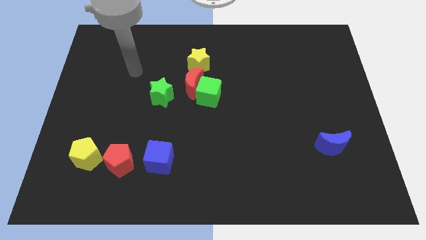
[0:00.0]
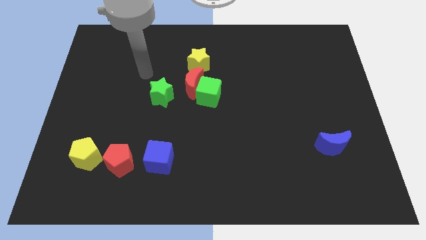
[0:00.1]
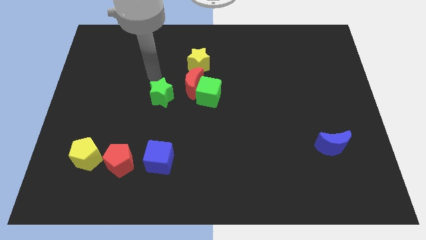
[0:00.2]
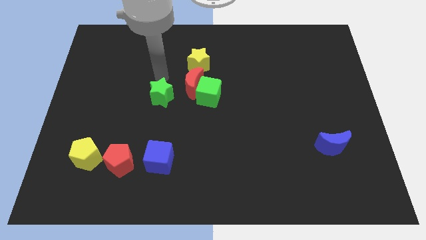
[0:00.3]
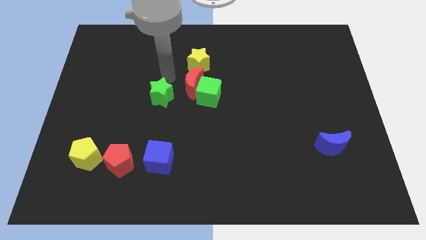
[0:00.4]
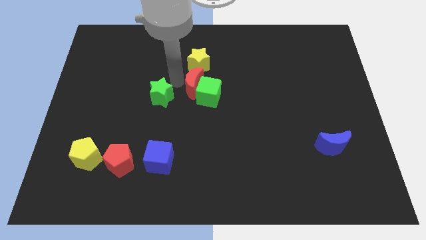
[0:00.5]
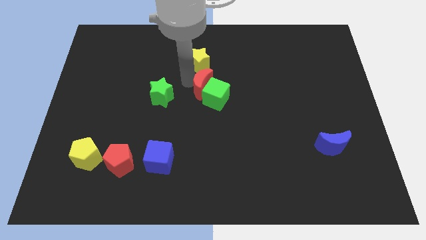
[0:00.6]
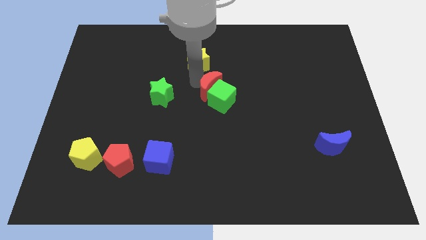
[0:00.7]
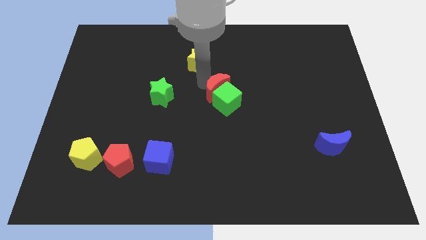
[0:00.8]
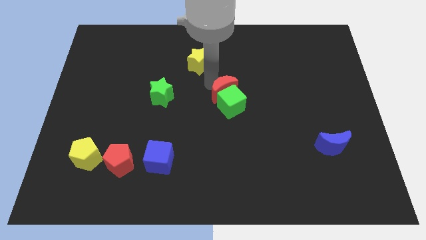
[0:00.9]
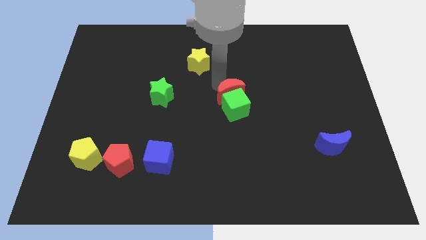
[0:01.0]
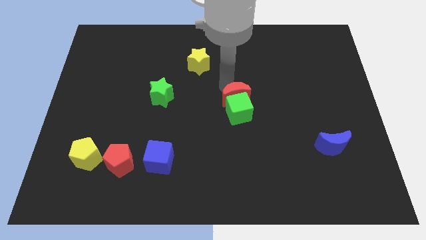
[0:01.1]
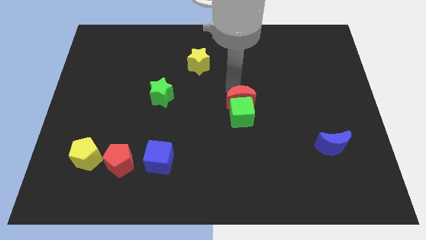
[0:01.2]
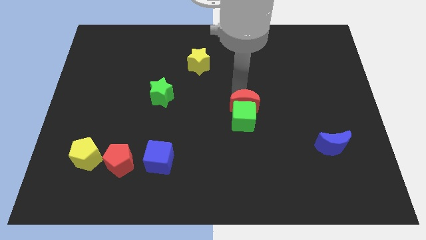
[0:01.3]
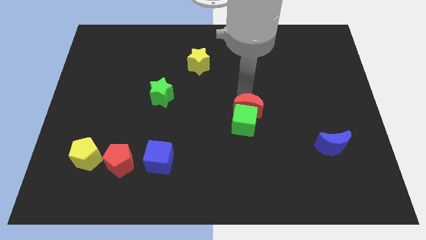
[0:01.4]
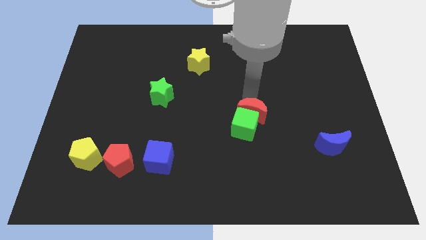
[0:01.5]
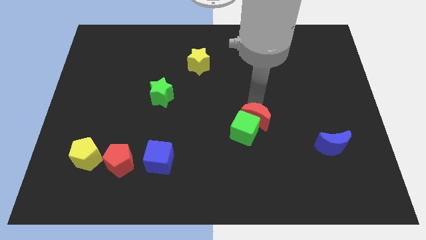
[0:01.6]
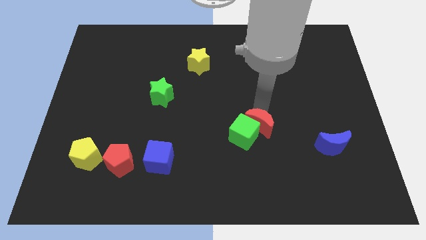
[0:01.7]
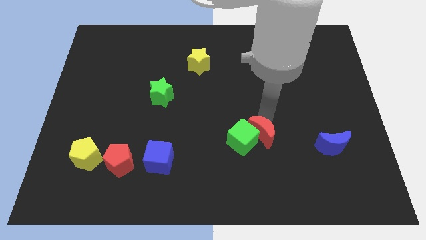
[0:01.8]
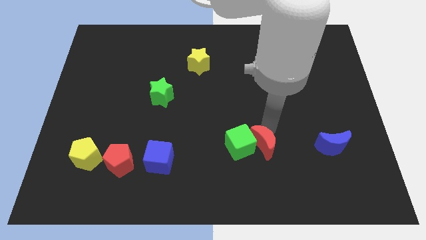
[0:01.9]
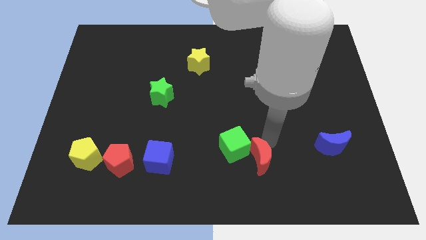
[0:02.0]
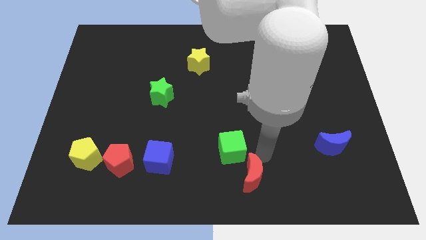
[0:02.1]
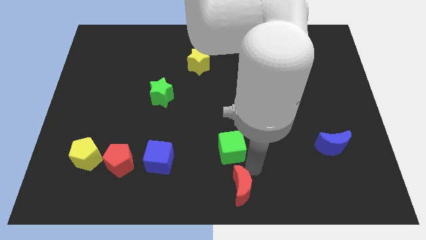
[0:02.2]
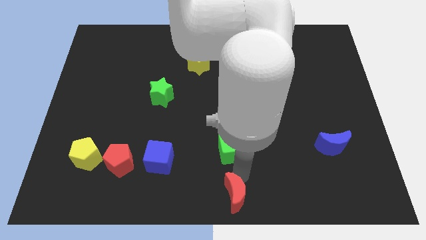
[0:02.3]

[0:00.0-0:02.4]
pull the green cube apart from the red moon

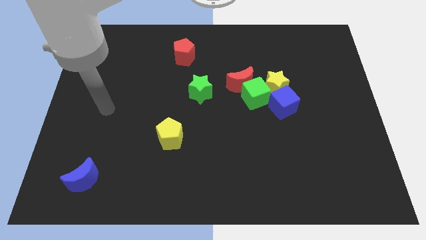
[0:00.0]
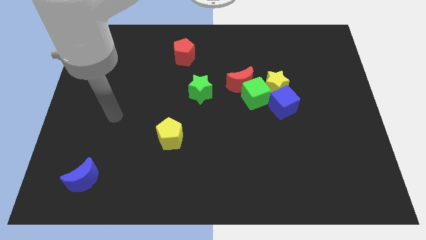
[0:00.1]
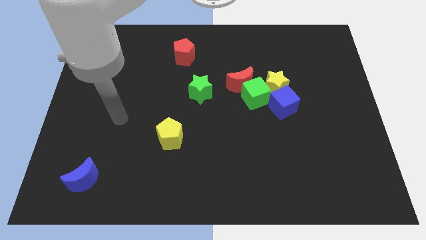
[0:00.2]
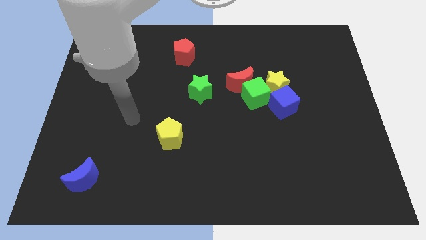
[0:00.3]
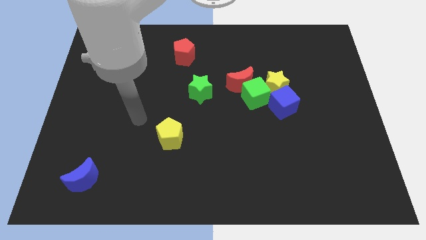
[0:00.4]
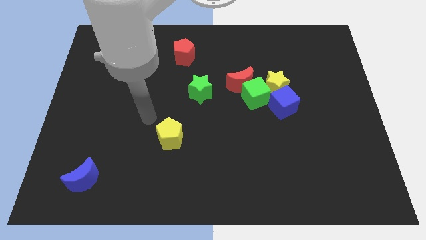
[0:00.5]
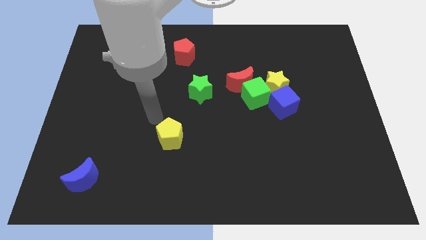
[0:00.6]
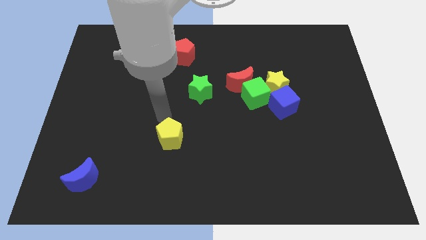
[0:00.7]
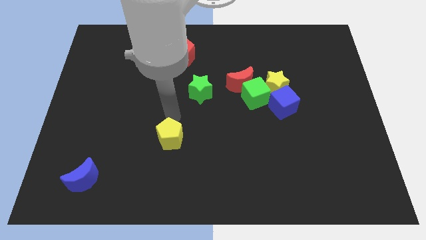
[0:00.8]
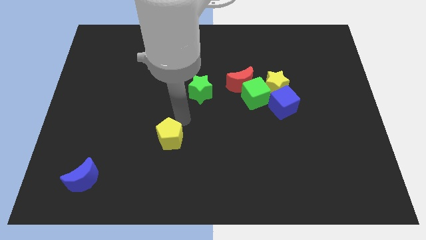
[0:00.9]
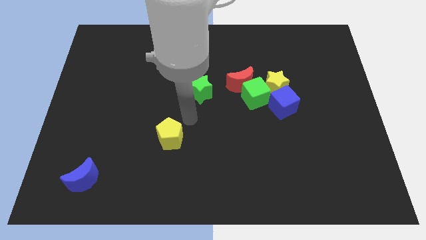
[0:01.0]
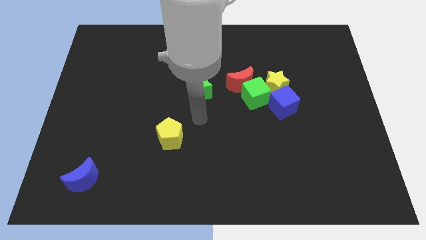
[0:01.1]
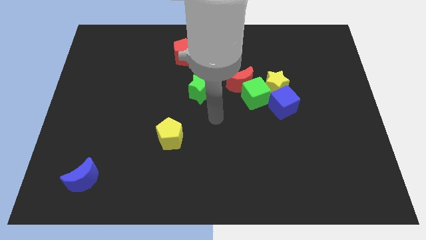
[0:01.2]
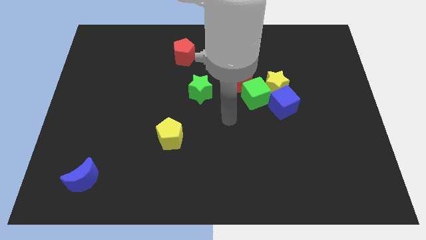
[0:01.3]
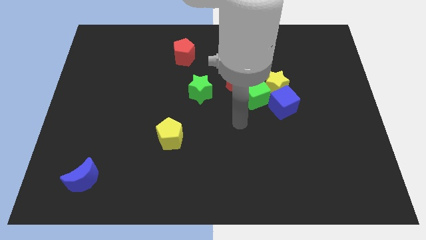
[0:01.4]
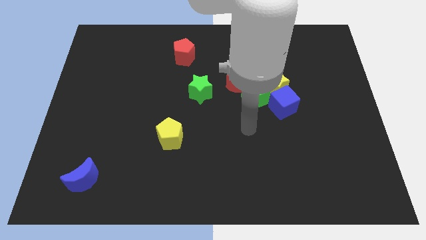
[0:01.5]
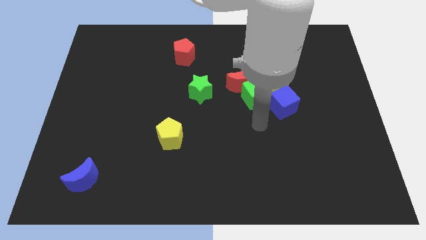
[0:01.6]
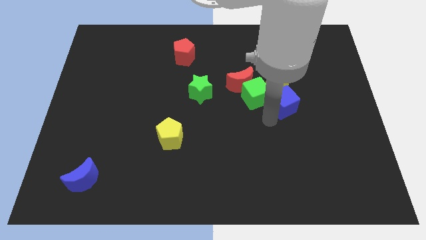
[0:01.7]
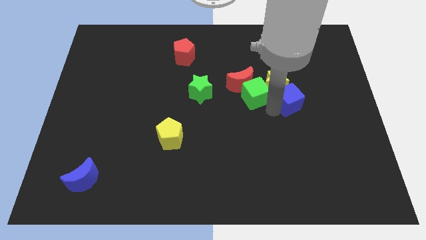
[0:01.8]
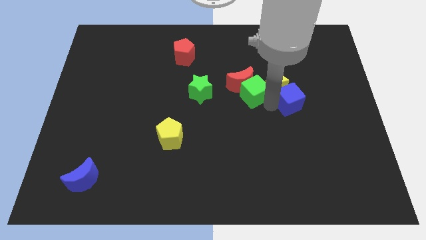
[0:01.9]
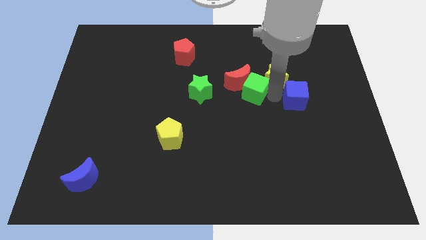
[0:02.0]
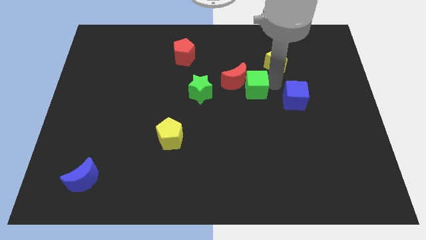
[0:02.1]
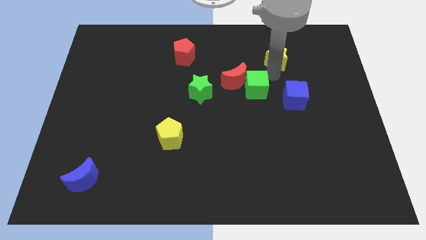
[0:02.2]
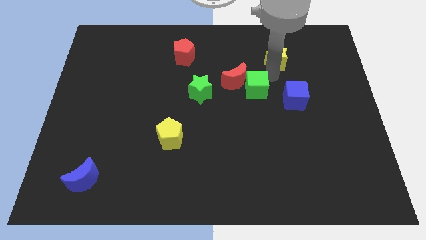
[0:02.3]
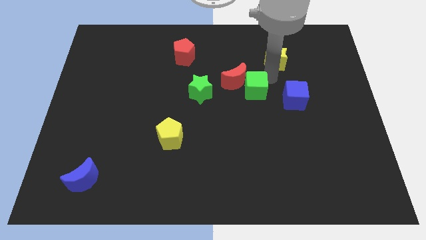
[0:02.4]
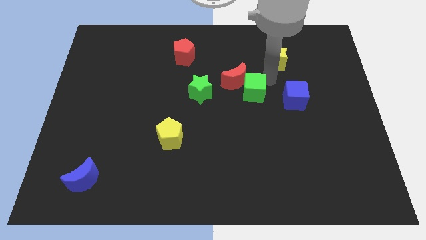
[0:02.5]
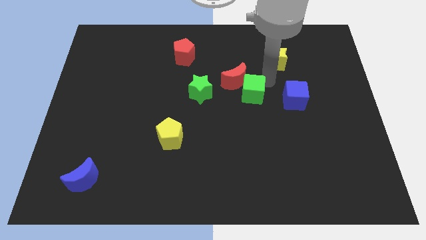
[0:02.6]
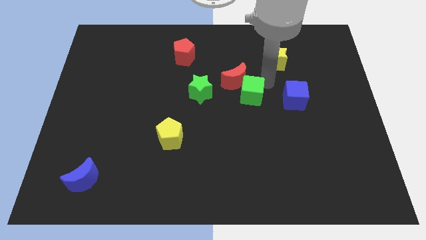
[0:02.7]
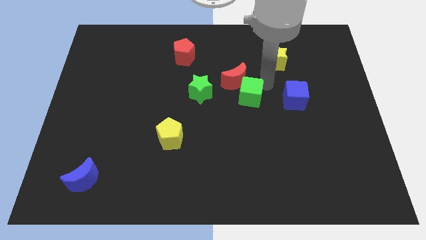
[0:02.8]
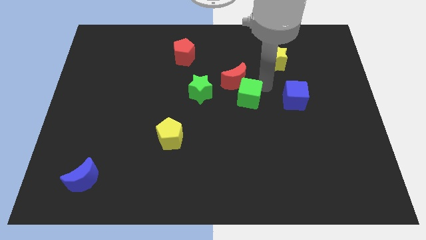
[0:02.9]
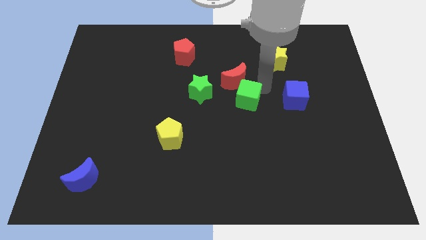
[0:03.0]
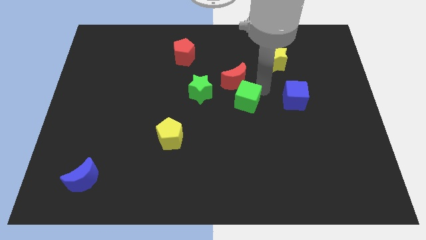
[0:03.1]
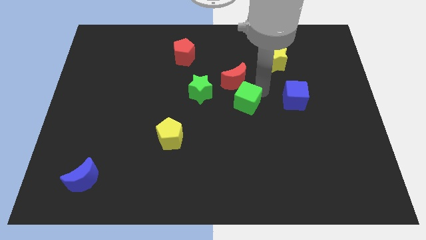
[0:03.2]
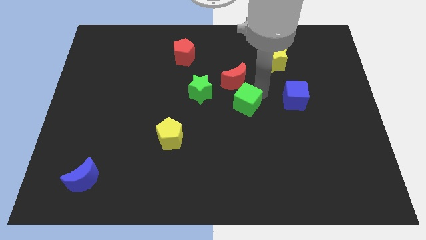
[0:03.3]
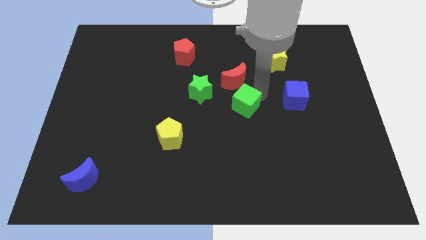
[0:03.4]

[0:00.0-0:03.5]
move the green cube away from the red moon, yellow star, and blue cube

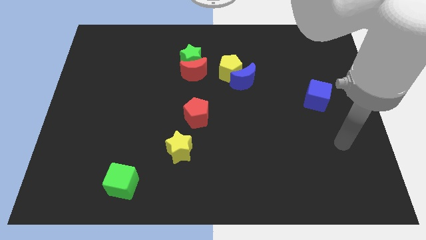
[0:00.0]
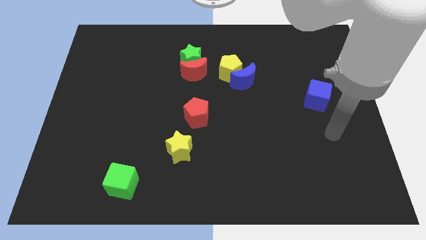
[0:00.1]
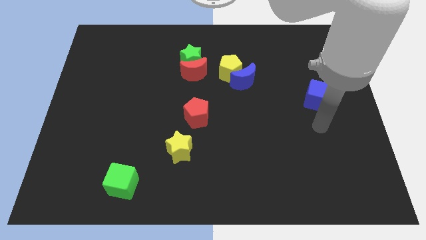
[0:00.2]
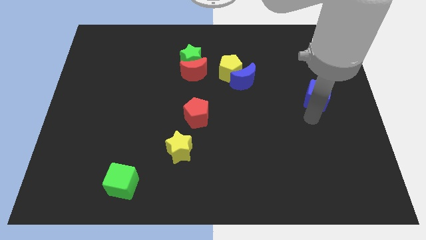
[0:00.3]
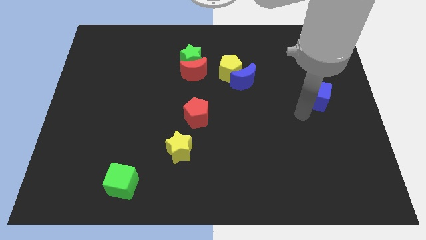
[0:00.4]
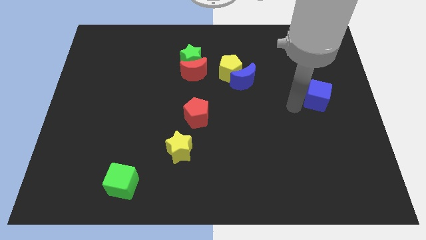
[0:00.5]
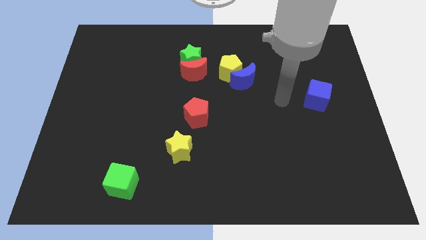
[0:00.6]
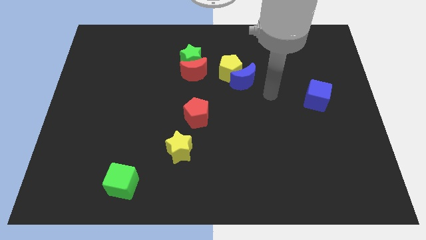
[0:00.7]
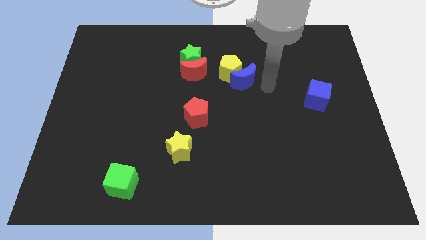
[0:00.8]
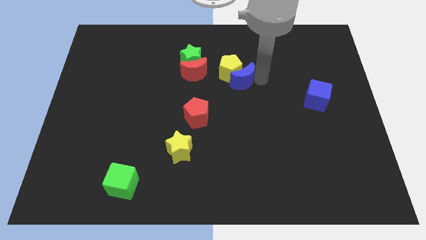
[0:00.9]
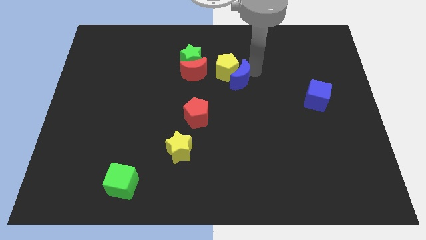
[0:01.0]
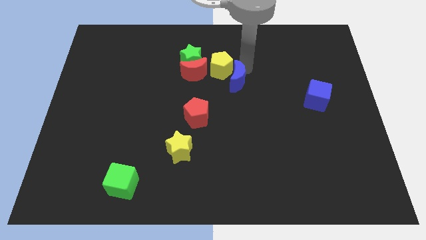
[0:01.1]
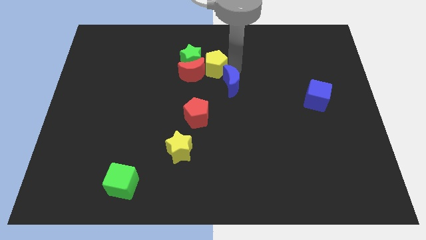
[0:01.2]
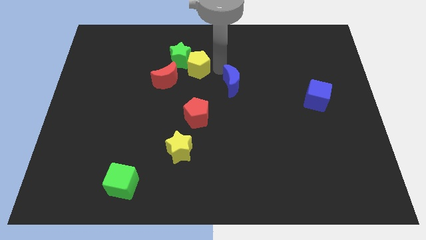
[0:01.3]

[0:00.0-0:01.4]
move the blue moon away from the yellow pentagon

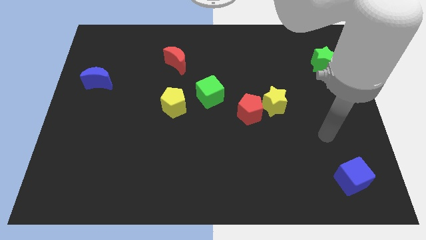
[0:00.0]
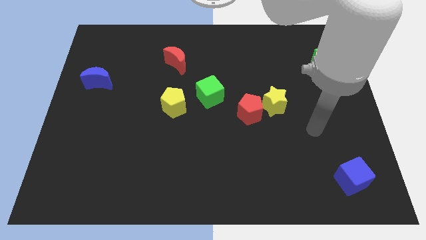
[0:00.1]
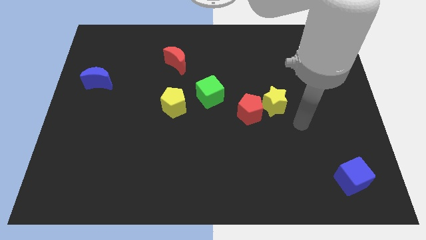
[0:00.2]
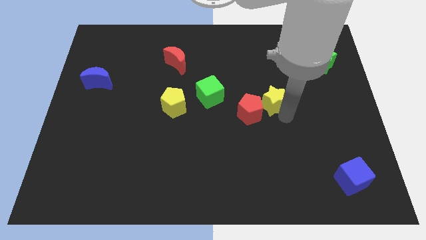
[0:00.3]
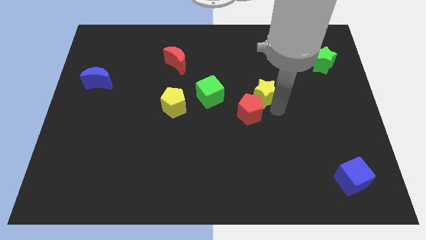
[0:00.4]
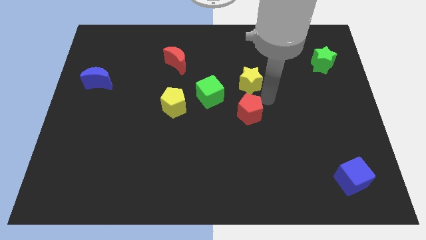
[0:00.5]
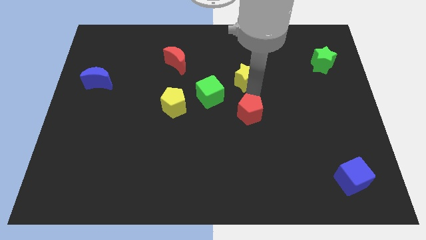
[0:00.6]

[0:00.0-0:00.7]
pull the red pentagon apart from the yellow star

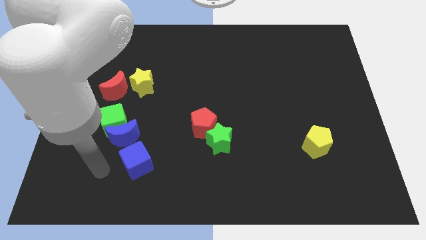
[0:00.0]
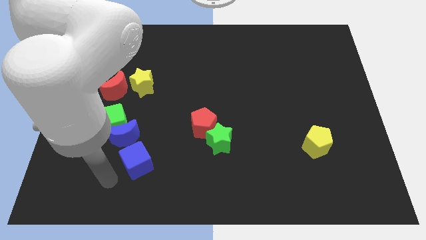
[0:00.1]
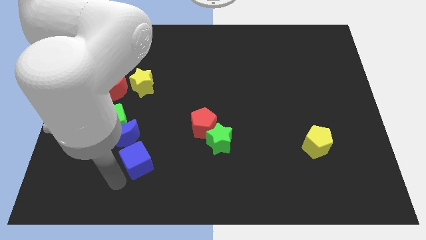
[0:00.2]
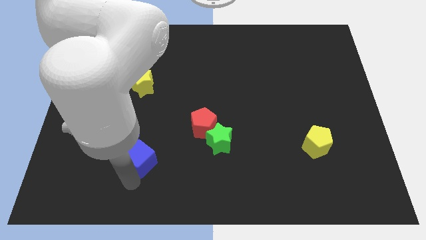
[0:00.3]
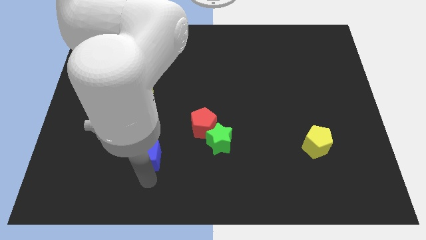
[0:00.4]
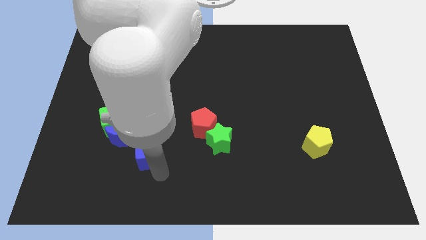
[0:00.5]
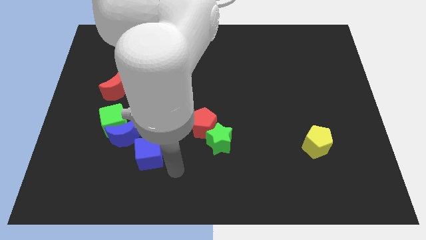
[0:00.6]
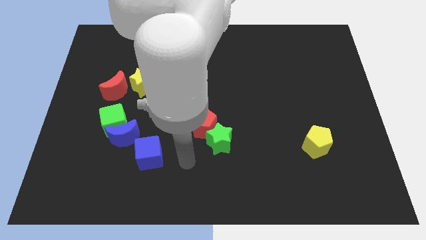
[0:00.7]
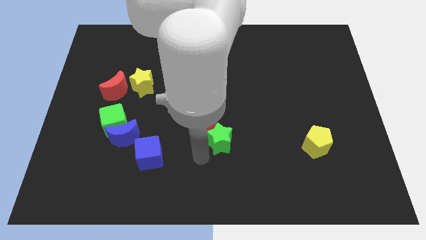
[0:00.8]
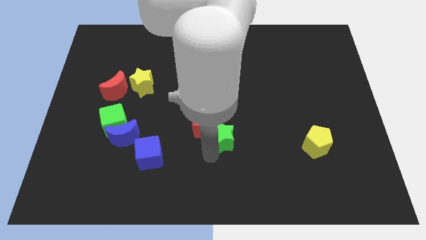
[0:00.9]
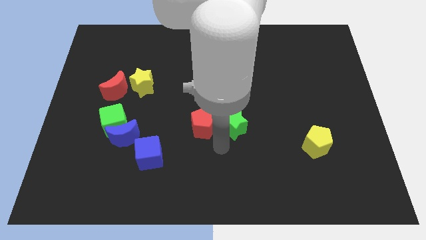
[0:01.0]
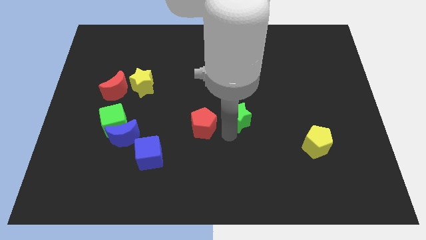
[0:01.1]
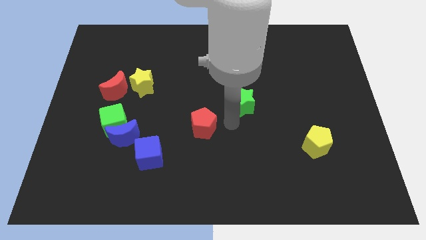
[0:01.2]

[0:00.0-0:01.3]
separate the red pentagon from the green star

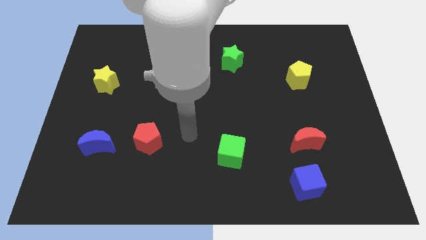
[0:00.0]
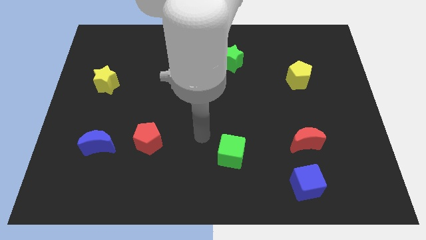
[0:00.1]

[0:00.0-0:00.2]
move the red moon away from the blue cube
